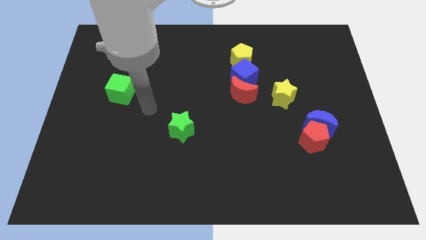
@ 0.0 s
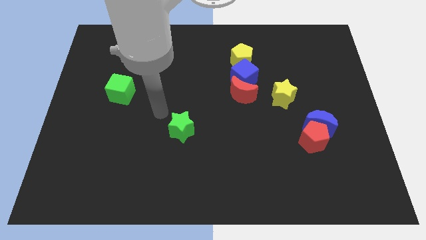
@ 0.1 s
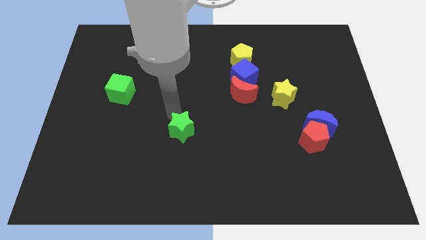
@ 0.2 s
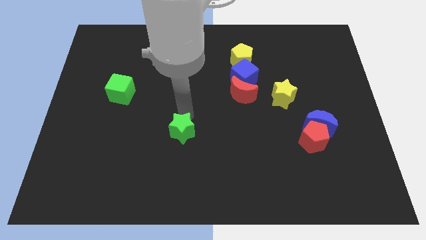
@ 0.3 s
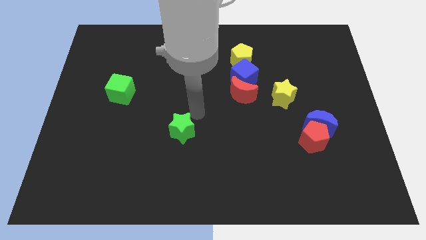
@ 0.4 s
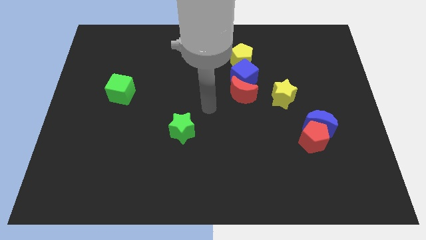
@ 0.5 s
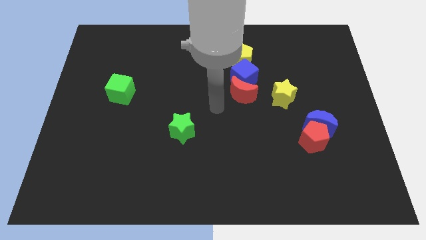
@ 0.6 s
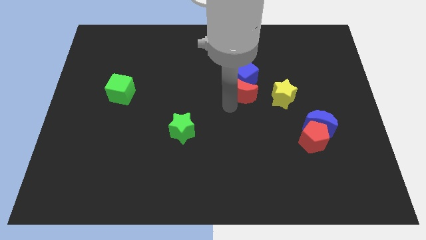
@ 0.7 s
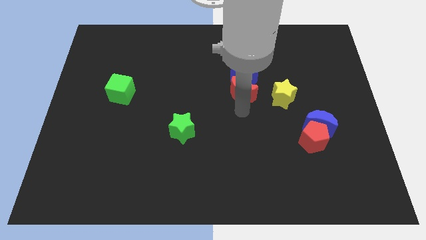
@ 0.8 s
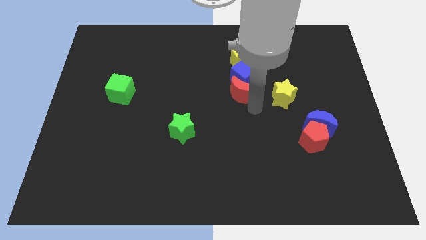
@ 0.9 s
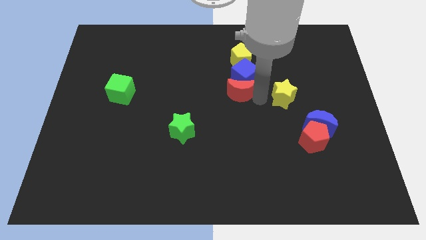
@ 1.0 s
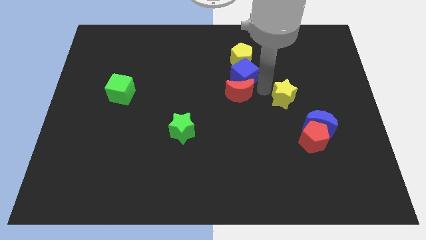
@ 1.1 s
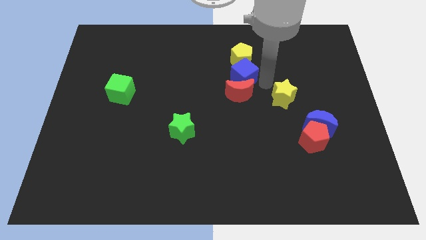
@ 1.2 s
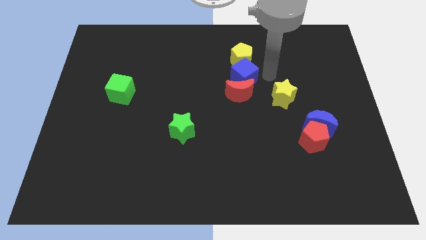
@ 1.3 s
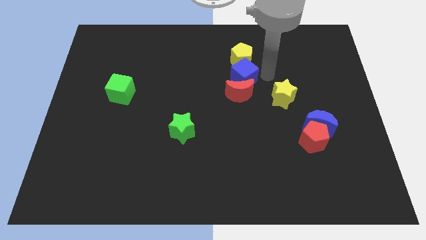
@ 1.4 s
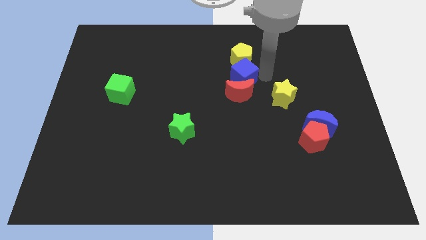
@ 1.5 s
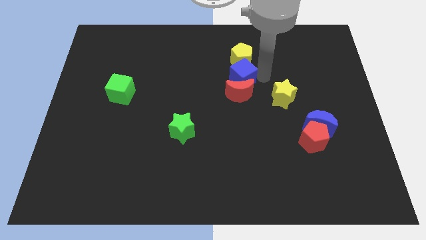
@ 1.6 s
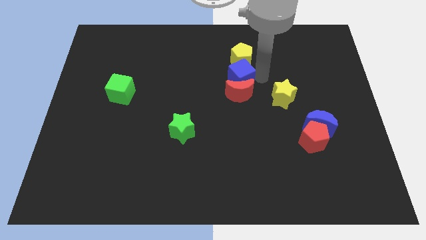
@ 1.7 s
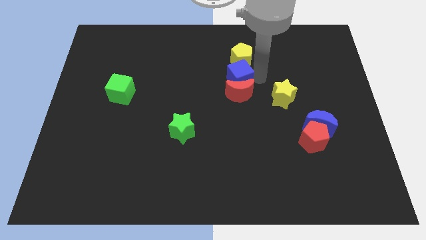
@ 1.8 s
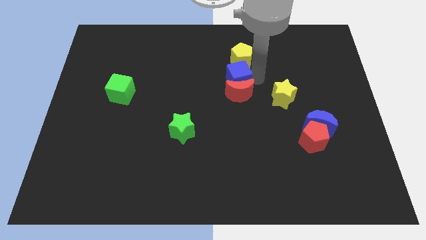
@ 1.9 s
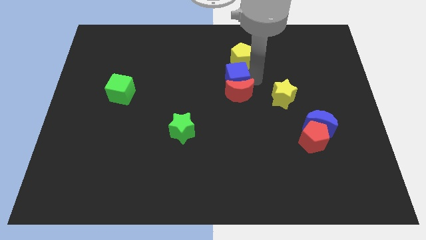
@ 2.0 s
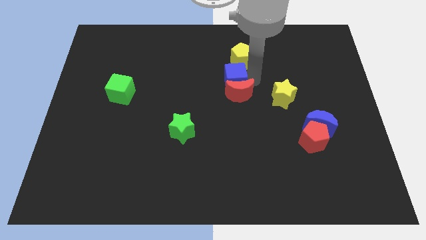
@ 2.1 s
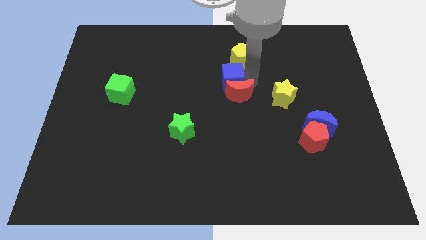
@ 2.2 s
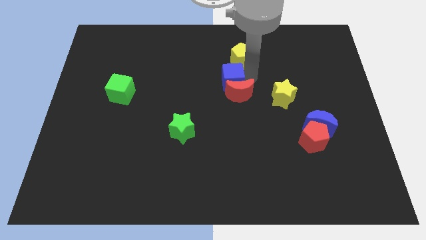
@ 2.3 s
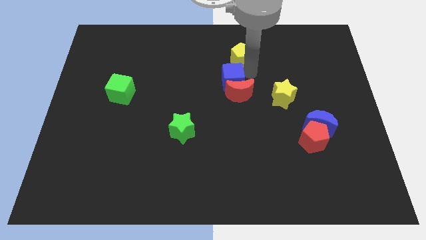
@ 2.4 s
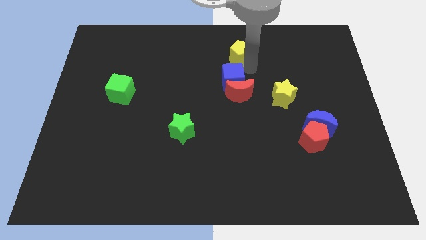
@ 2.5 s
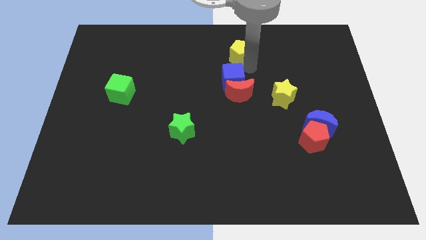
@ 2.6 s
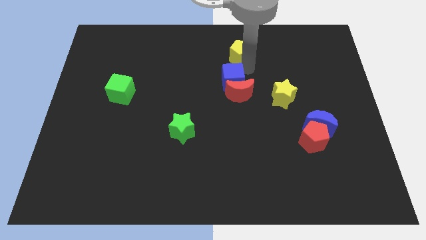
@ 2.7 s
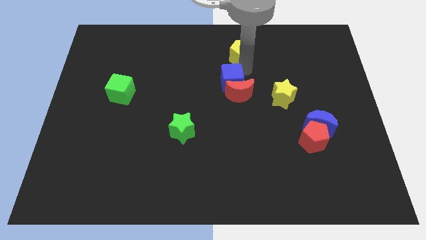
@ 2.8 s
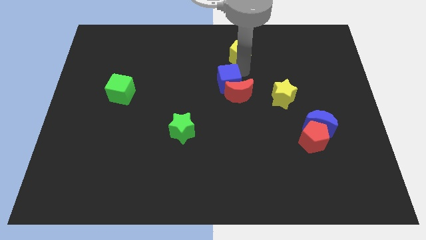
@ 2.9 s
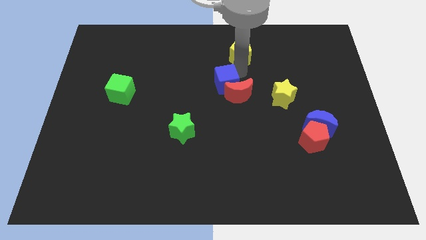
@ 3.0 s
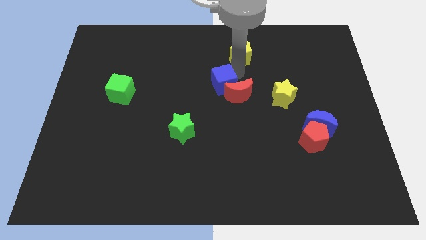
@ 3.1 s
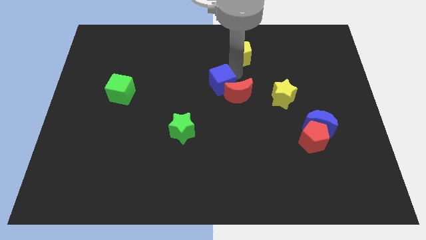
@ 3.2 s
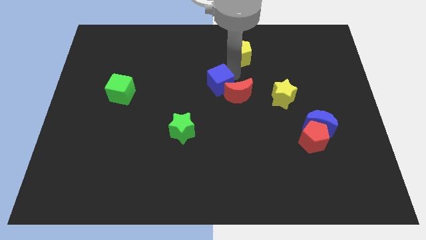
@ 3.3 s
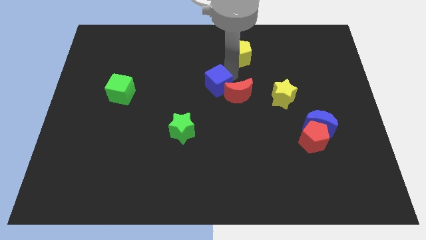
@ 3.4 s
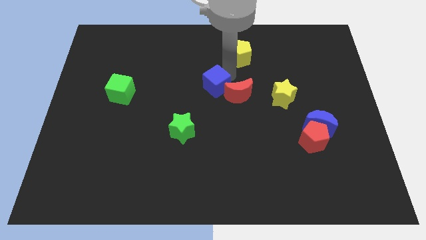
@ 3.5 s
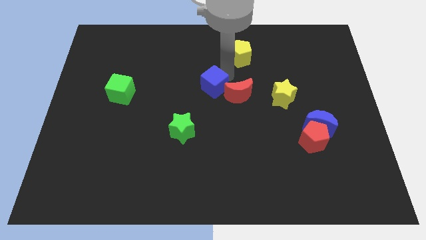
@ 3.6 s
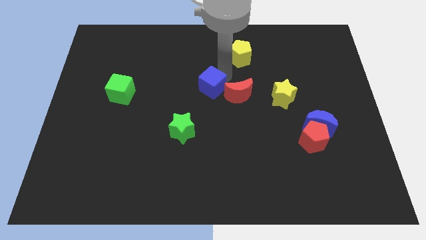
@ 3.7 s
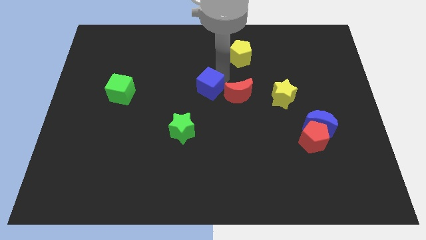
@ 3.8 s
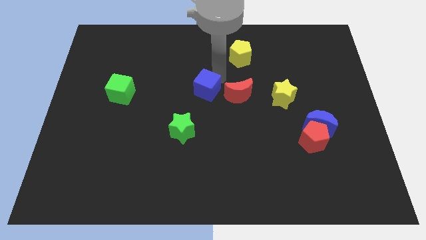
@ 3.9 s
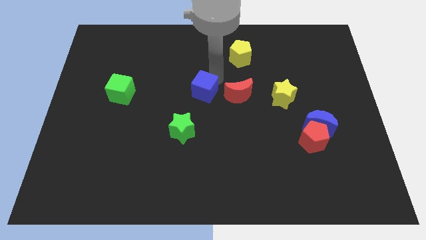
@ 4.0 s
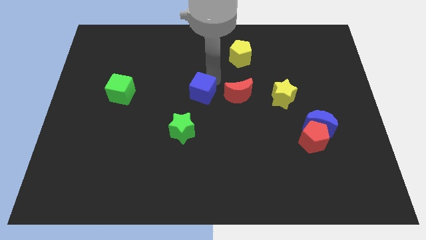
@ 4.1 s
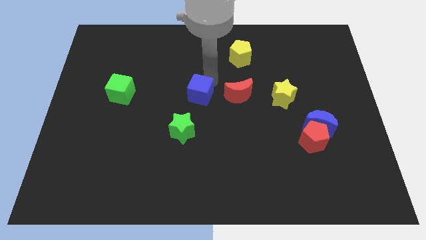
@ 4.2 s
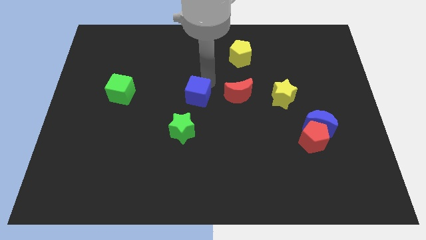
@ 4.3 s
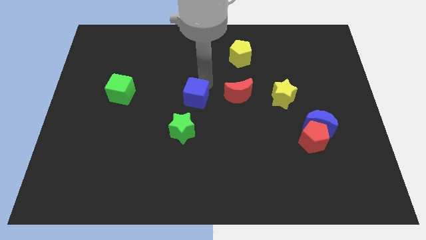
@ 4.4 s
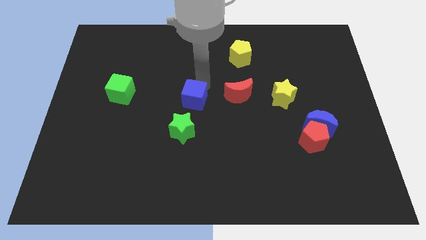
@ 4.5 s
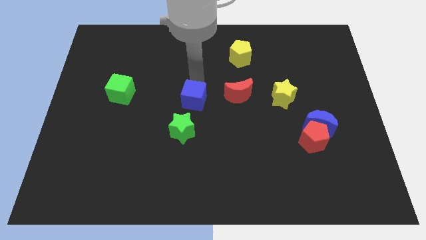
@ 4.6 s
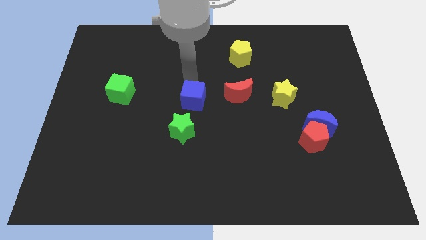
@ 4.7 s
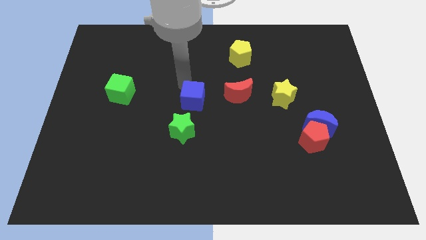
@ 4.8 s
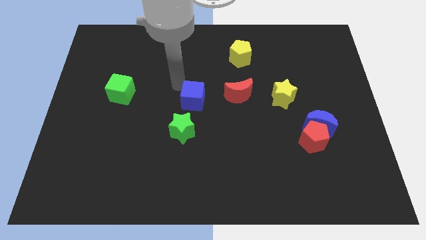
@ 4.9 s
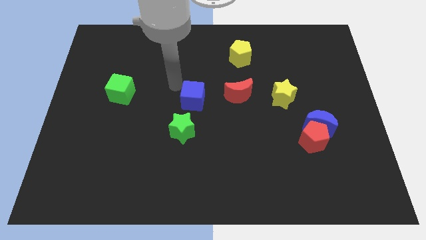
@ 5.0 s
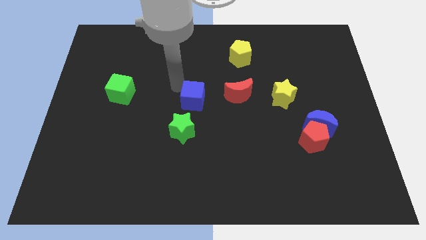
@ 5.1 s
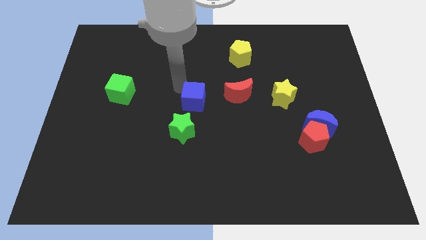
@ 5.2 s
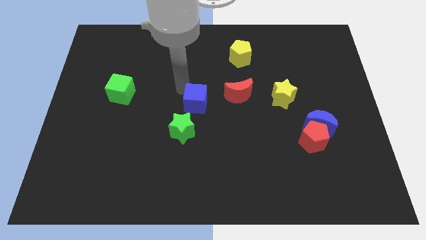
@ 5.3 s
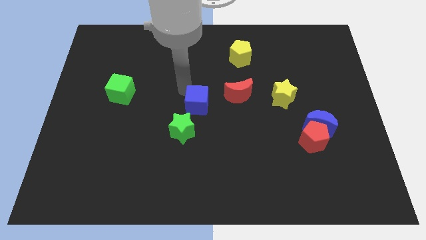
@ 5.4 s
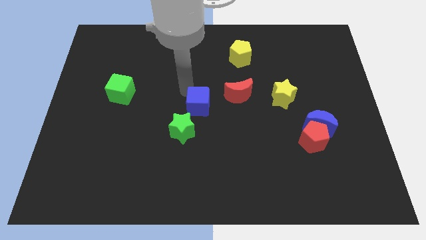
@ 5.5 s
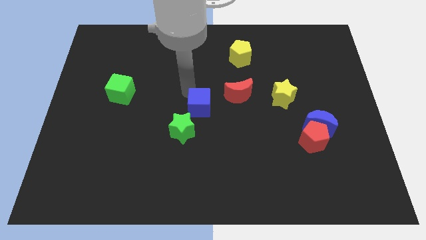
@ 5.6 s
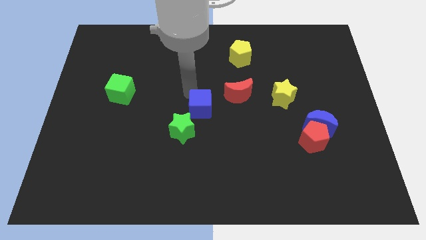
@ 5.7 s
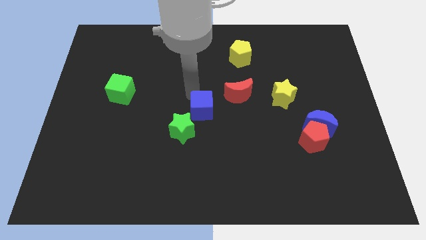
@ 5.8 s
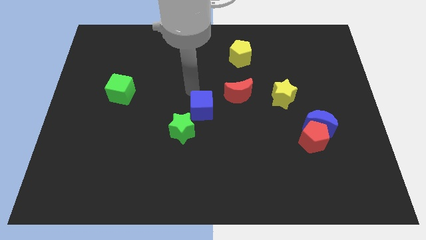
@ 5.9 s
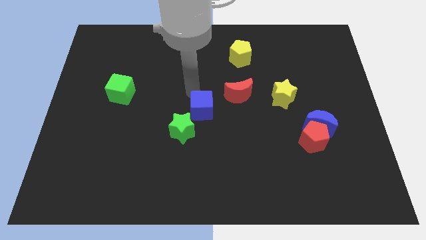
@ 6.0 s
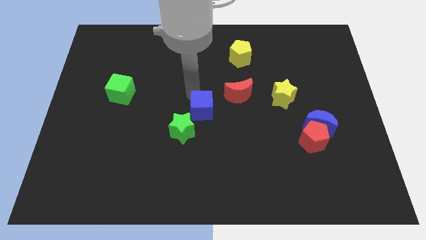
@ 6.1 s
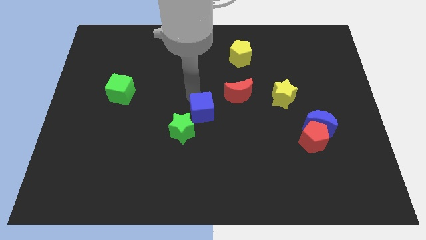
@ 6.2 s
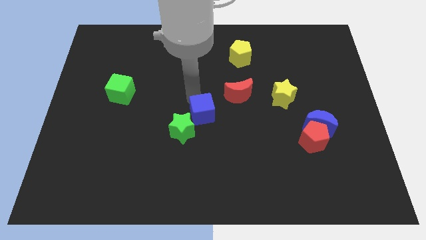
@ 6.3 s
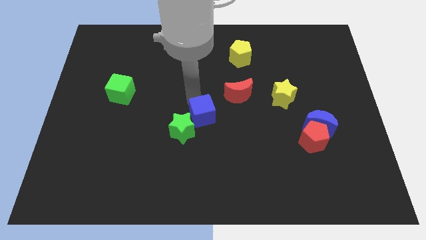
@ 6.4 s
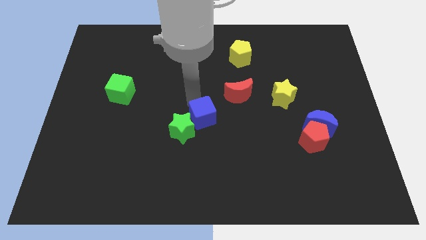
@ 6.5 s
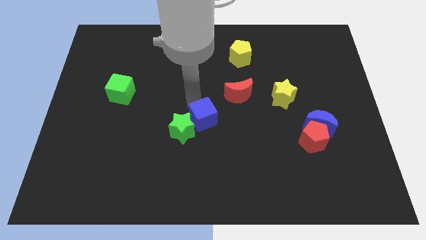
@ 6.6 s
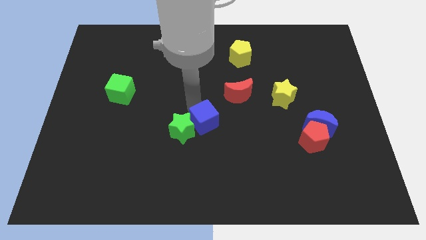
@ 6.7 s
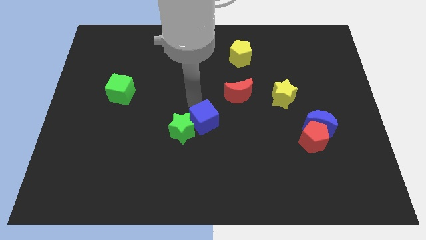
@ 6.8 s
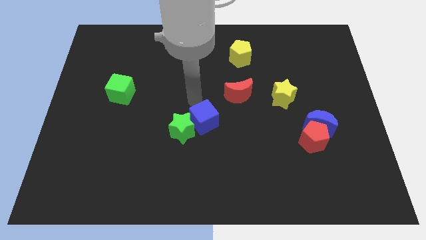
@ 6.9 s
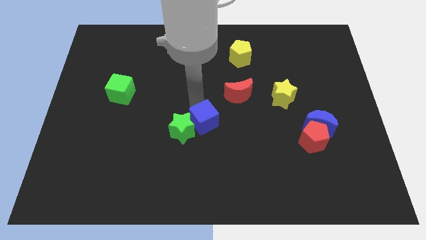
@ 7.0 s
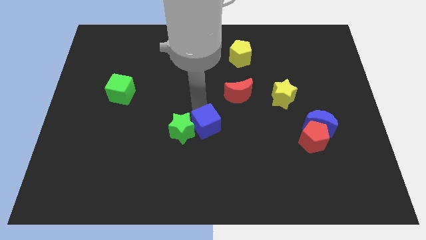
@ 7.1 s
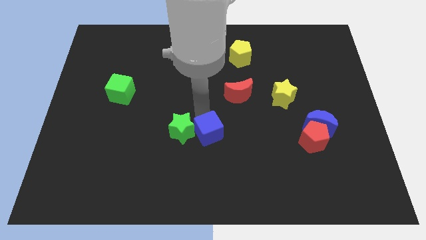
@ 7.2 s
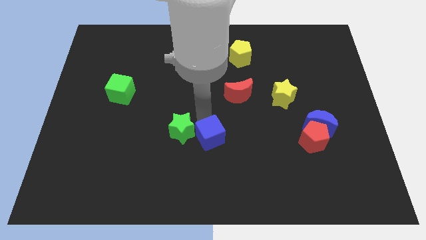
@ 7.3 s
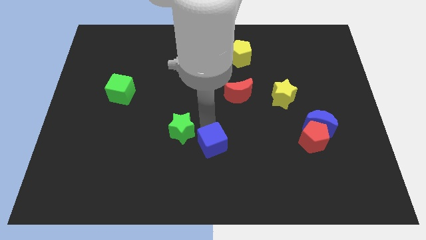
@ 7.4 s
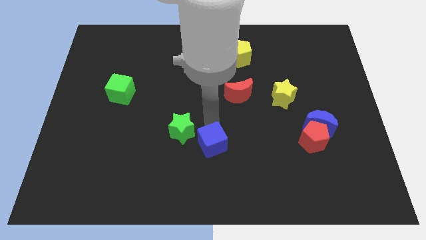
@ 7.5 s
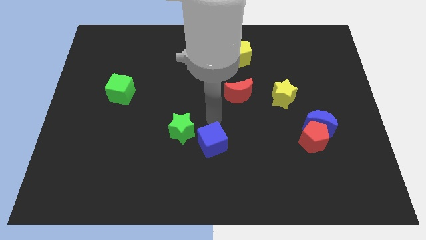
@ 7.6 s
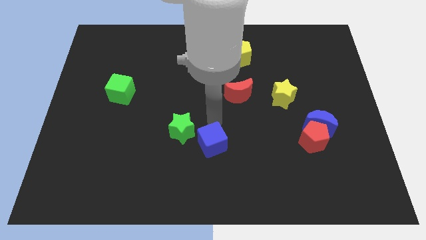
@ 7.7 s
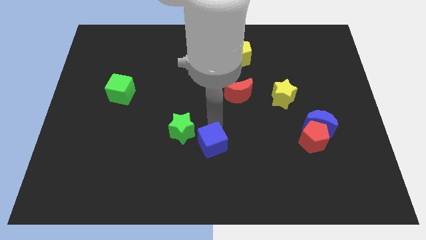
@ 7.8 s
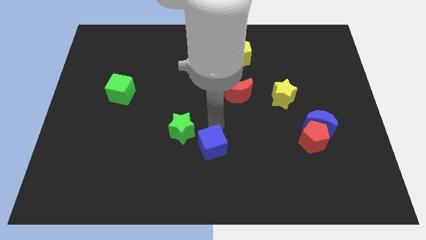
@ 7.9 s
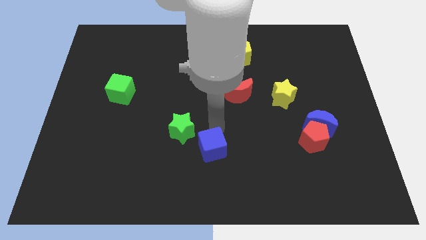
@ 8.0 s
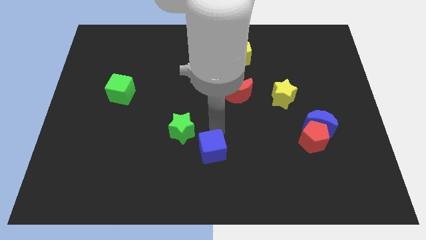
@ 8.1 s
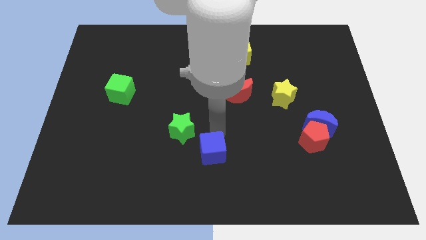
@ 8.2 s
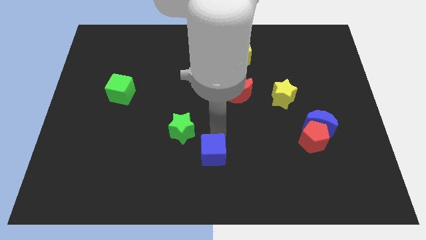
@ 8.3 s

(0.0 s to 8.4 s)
put the blue cube to the bottom
